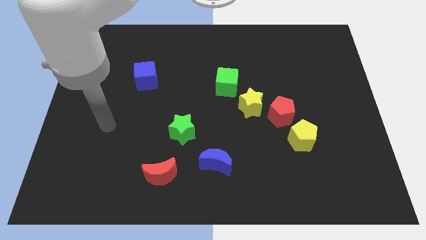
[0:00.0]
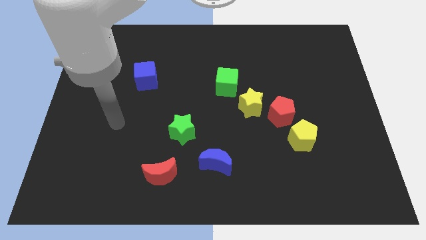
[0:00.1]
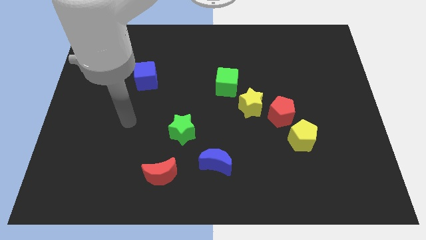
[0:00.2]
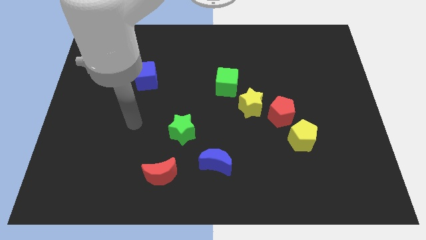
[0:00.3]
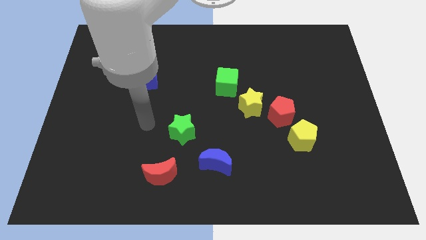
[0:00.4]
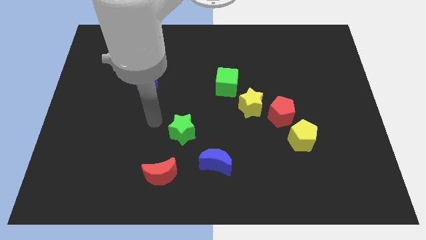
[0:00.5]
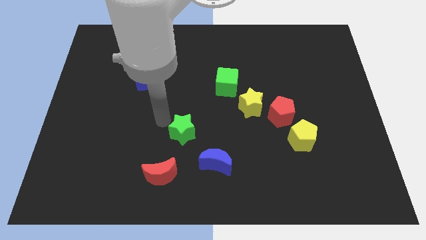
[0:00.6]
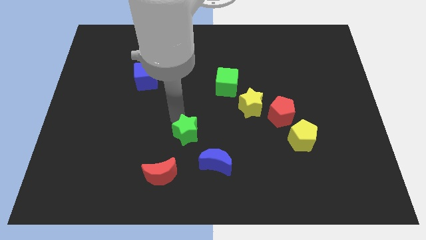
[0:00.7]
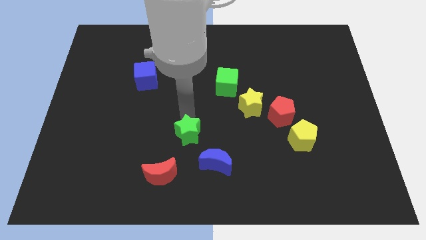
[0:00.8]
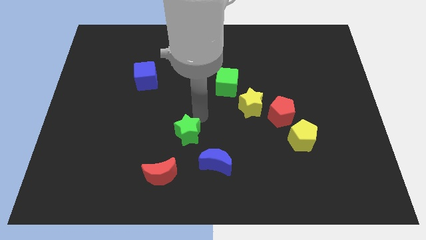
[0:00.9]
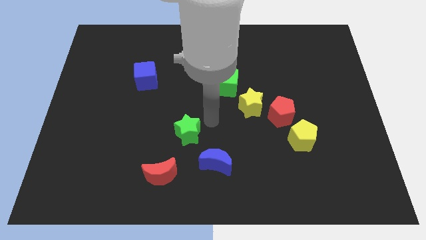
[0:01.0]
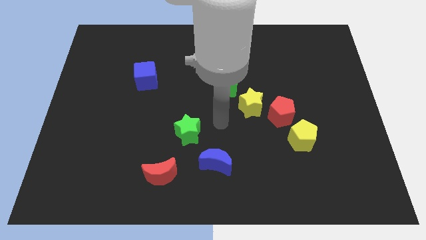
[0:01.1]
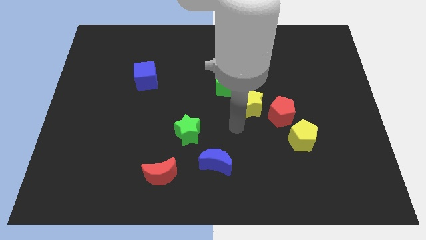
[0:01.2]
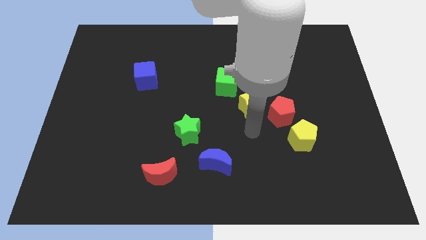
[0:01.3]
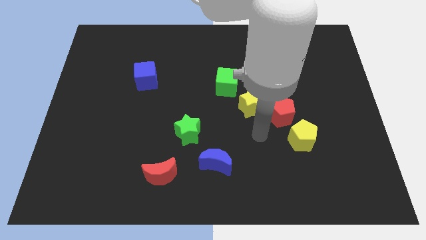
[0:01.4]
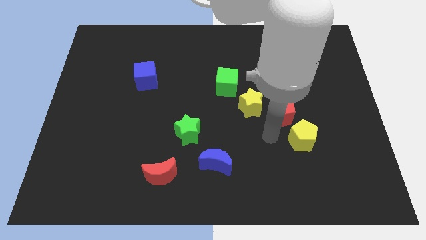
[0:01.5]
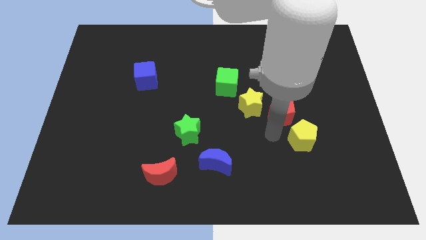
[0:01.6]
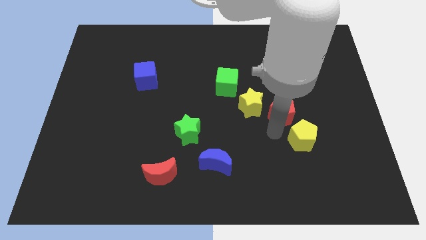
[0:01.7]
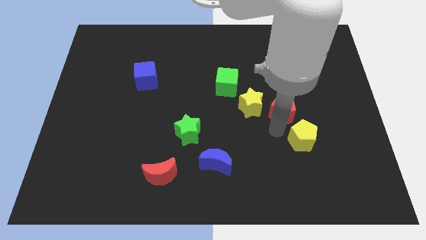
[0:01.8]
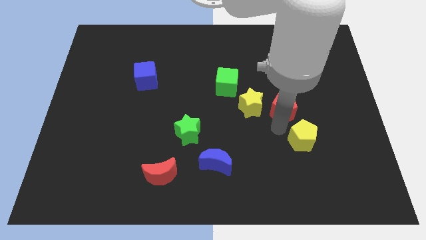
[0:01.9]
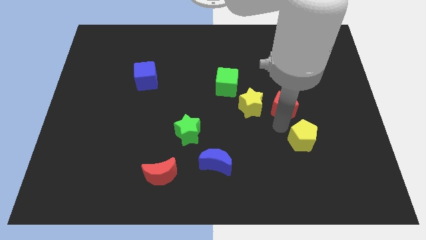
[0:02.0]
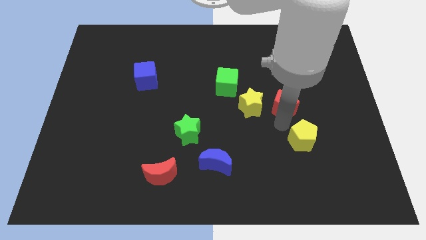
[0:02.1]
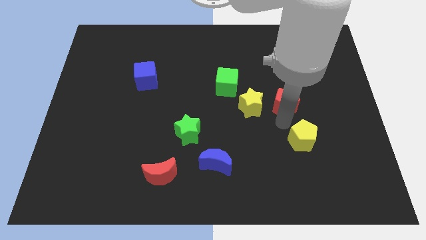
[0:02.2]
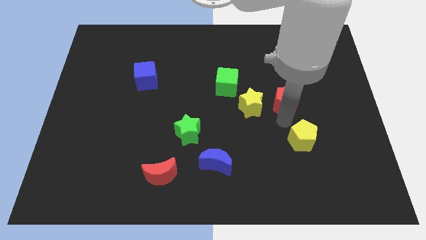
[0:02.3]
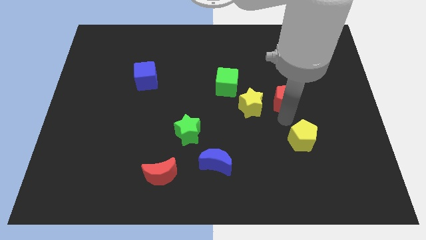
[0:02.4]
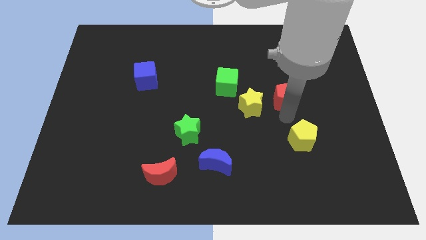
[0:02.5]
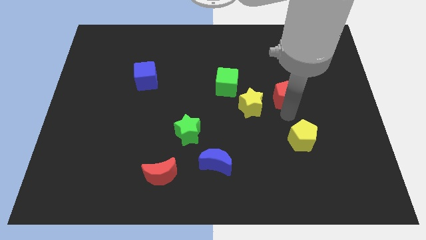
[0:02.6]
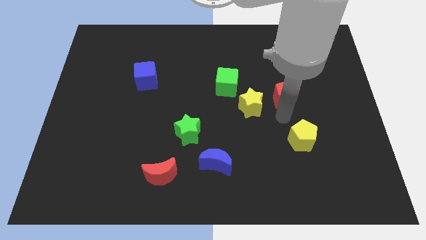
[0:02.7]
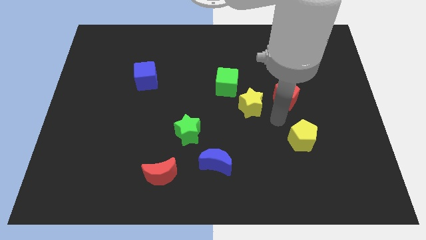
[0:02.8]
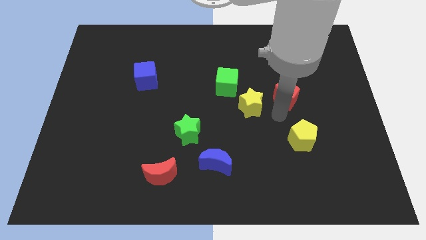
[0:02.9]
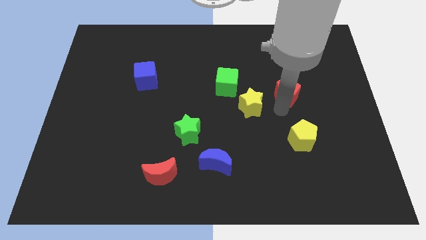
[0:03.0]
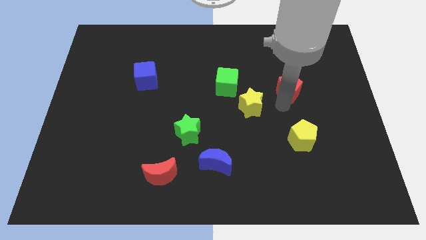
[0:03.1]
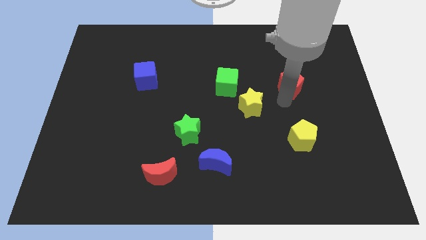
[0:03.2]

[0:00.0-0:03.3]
pull the red pentagon apart from the yellow star and yellow pentagon

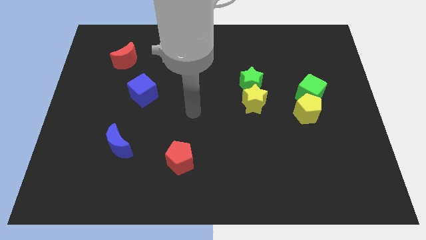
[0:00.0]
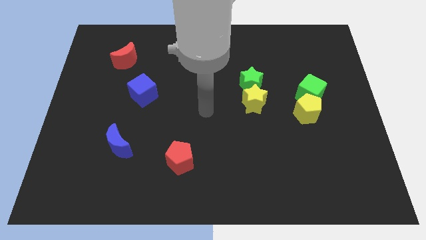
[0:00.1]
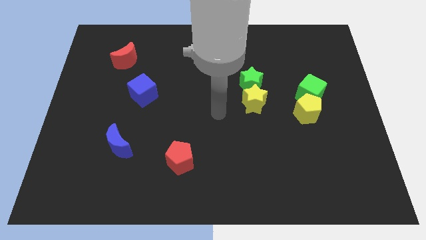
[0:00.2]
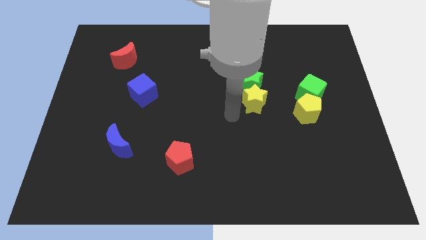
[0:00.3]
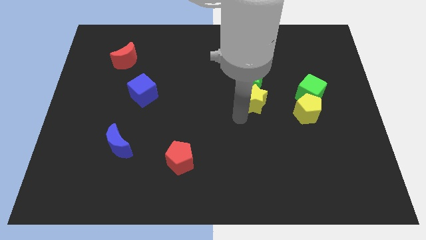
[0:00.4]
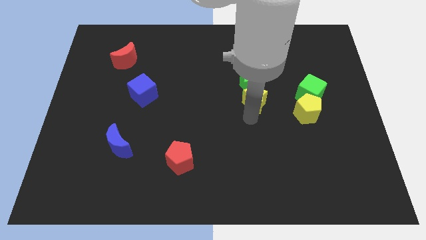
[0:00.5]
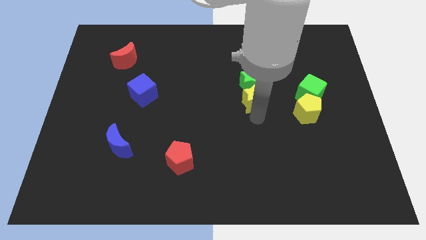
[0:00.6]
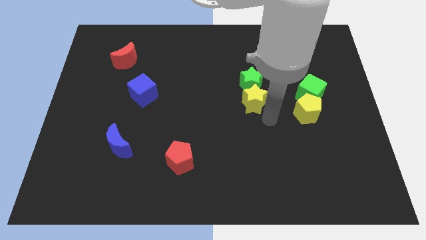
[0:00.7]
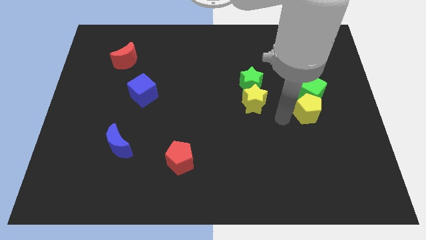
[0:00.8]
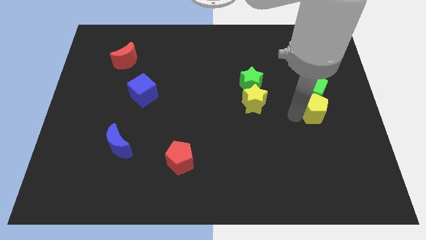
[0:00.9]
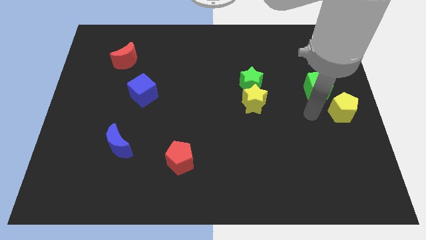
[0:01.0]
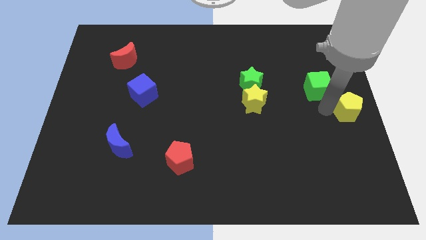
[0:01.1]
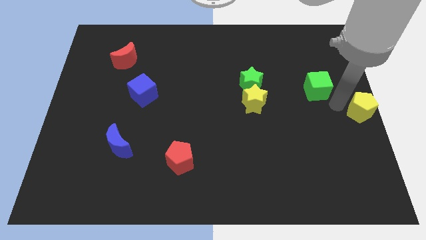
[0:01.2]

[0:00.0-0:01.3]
separate the green cube from the yellow pentagon

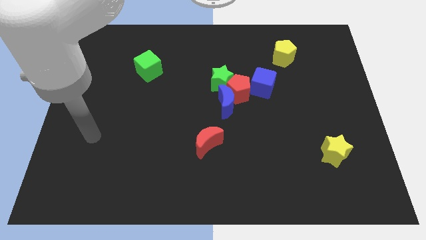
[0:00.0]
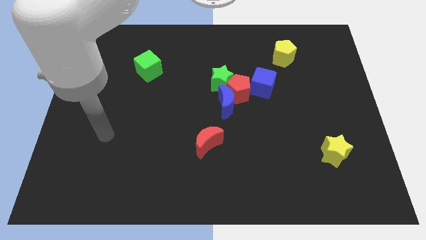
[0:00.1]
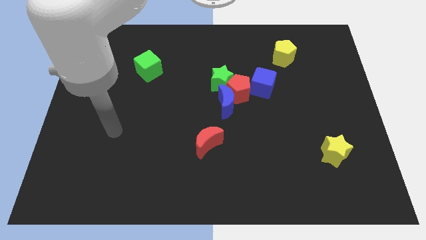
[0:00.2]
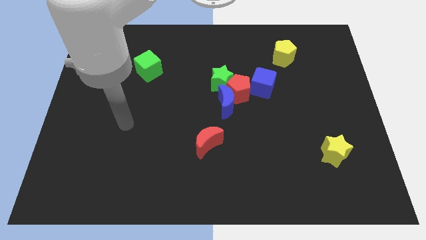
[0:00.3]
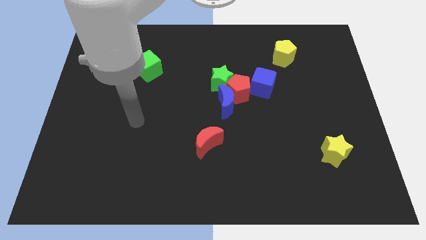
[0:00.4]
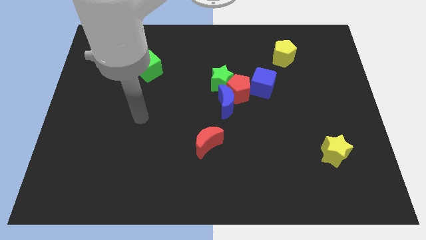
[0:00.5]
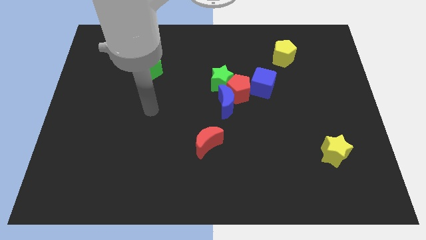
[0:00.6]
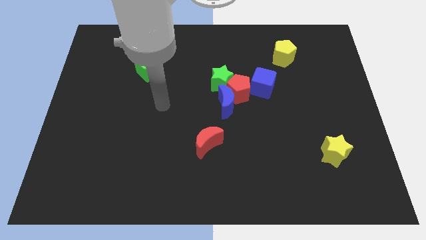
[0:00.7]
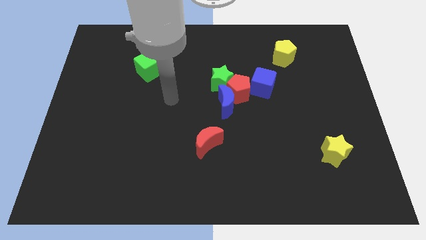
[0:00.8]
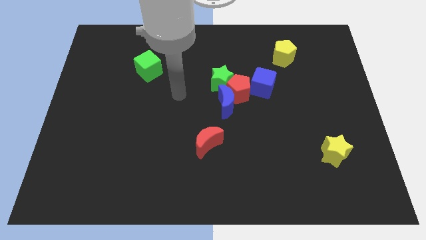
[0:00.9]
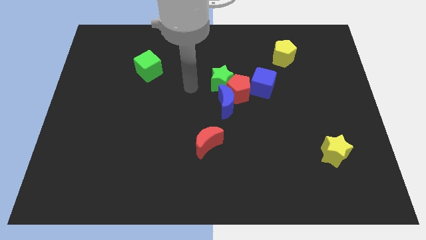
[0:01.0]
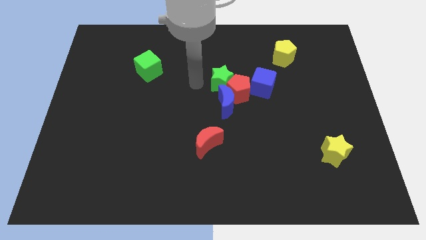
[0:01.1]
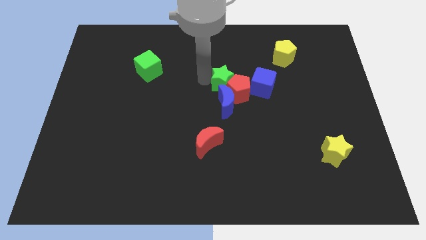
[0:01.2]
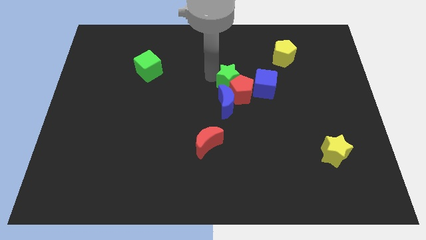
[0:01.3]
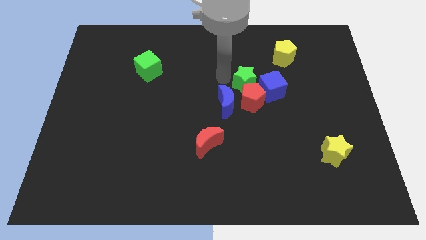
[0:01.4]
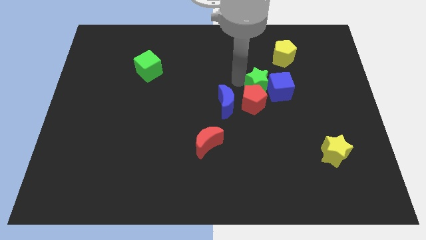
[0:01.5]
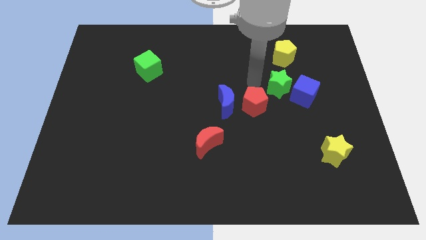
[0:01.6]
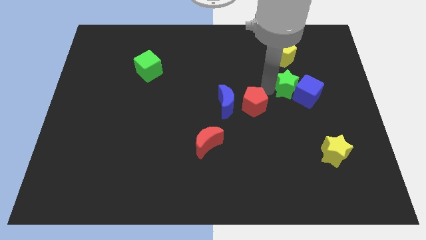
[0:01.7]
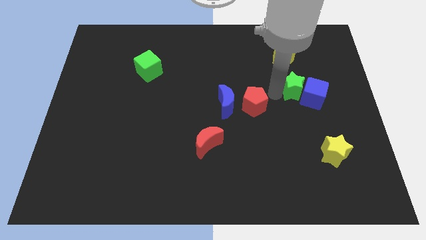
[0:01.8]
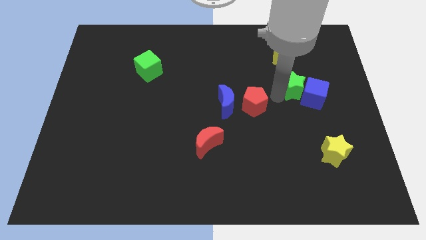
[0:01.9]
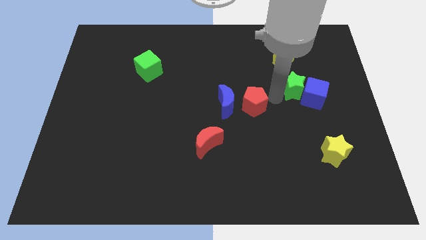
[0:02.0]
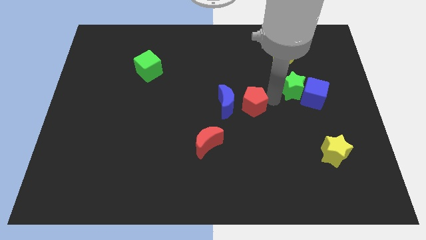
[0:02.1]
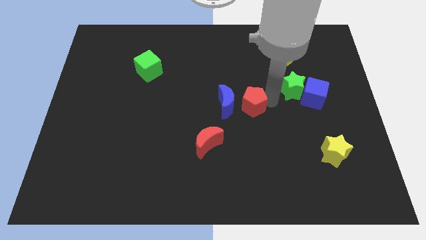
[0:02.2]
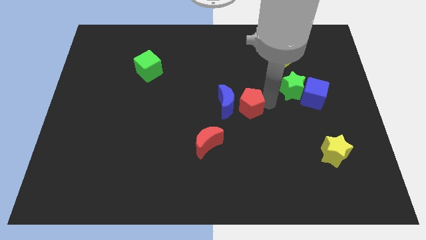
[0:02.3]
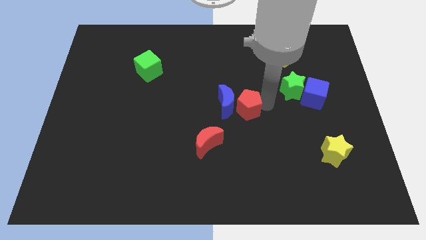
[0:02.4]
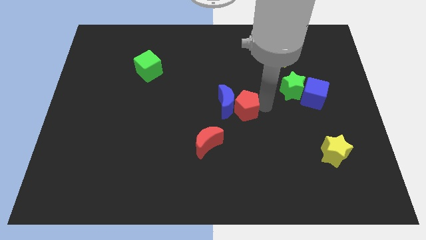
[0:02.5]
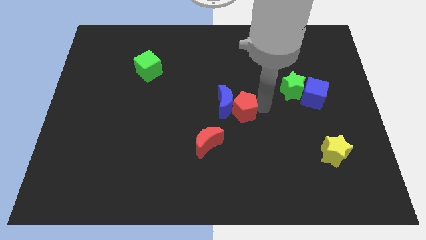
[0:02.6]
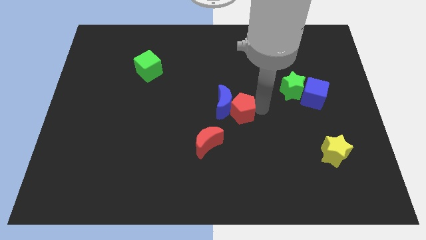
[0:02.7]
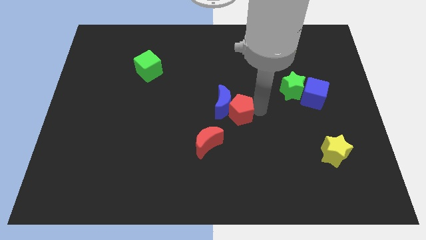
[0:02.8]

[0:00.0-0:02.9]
move the red pentagon away from the group

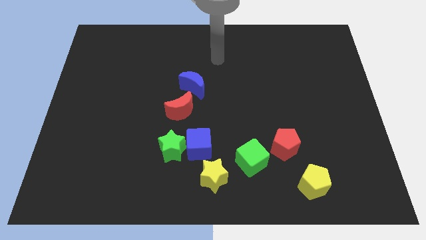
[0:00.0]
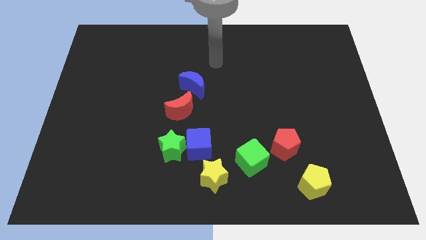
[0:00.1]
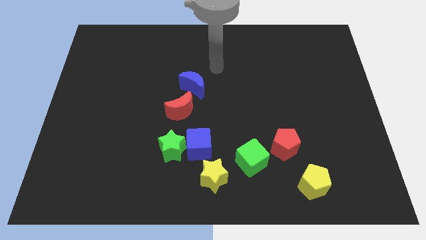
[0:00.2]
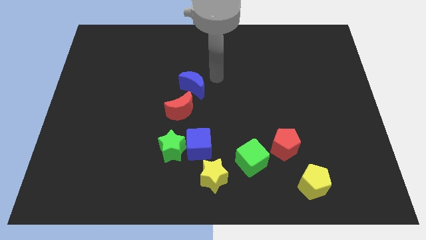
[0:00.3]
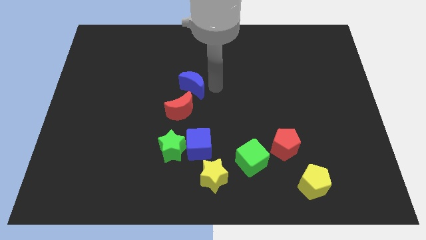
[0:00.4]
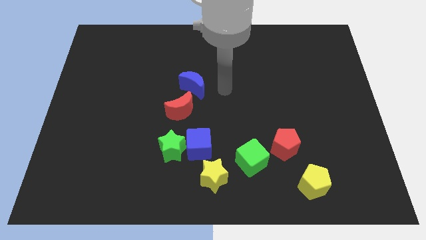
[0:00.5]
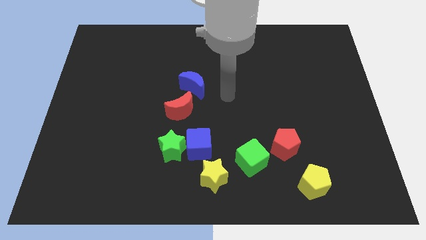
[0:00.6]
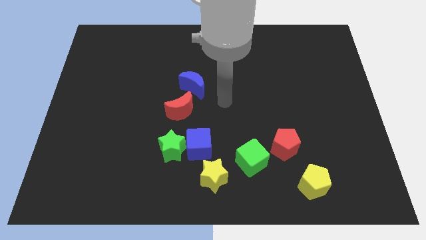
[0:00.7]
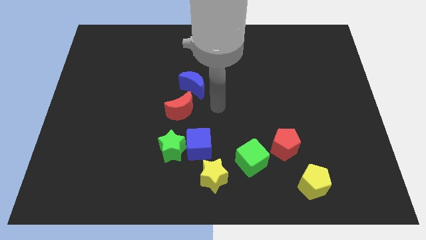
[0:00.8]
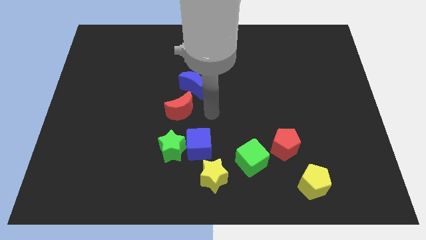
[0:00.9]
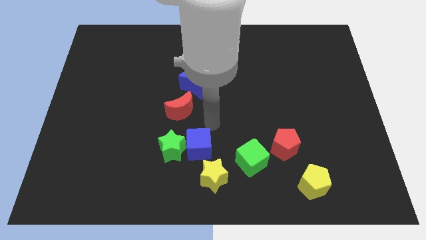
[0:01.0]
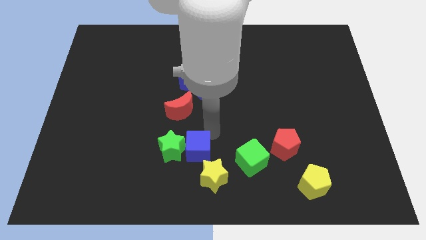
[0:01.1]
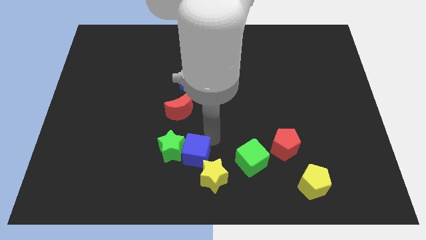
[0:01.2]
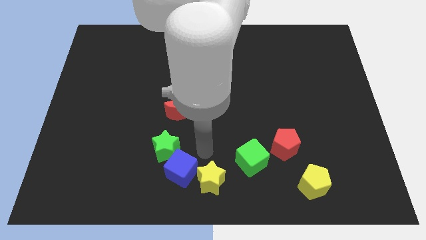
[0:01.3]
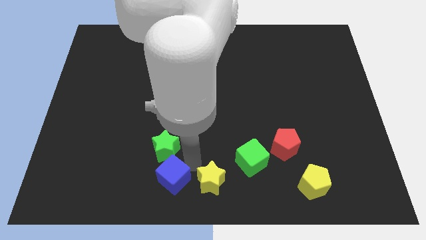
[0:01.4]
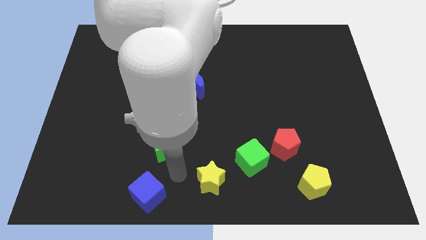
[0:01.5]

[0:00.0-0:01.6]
pull the green star apart from the blue cube

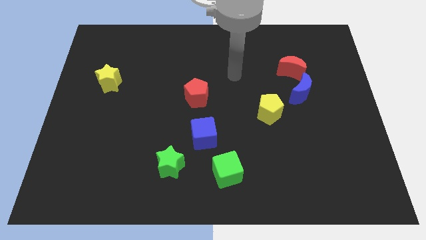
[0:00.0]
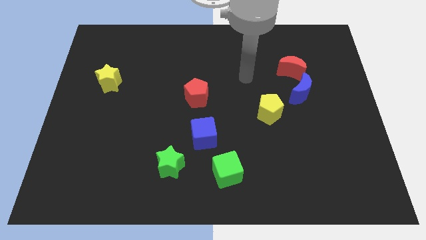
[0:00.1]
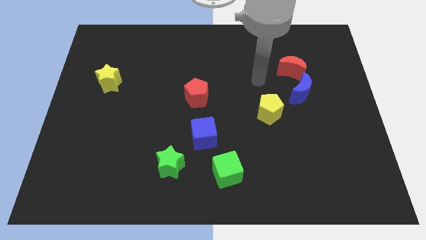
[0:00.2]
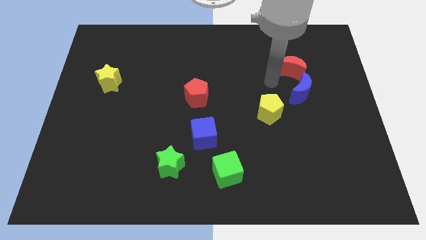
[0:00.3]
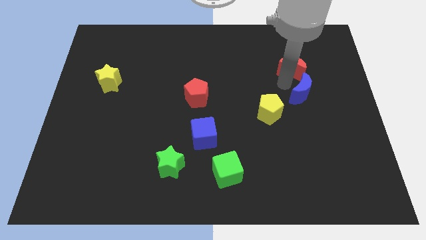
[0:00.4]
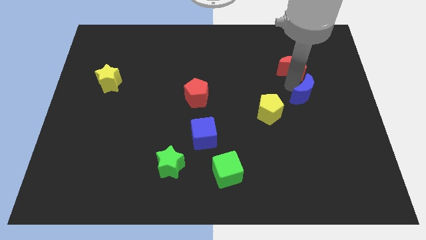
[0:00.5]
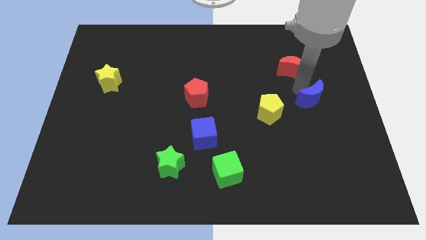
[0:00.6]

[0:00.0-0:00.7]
move the red moon away from the blue moon
